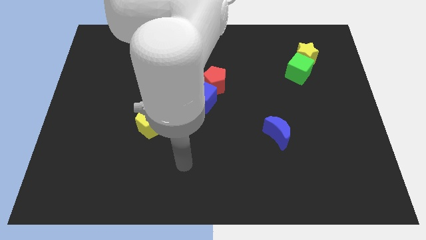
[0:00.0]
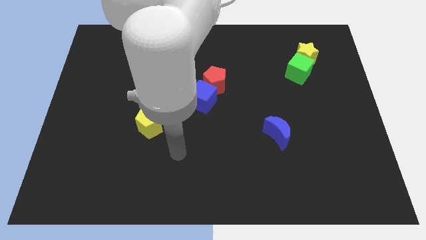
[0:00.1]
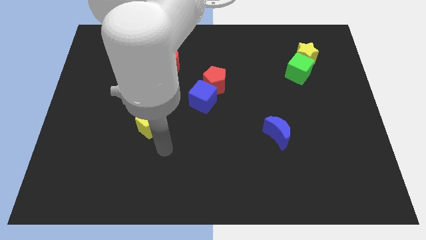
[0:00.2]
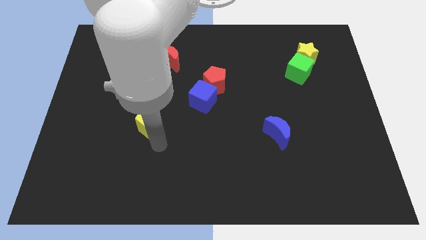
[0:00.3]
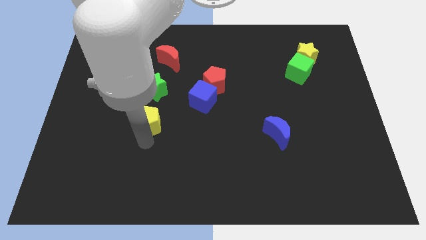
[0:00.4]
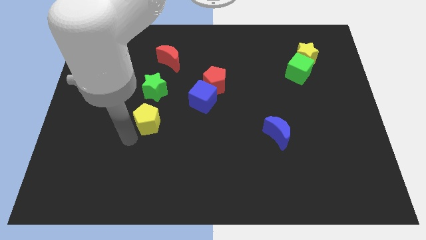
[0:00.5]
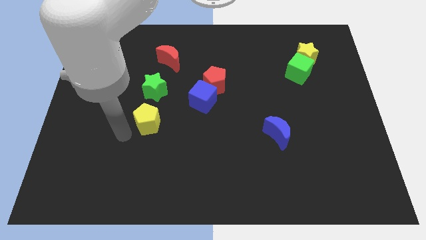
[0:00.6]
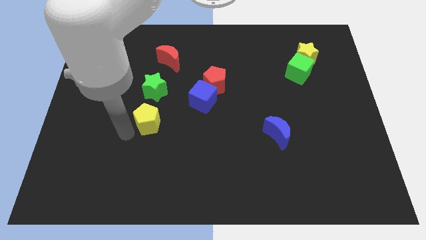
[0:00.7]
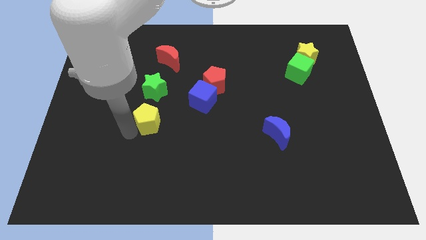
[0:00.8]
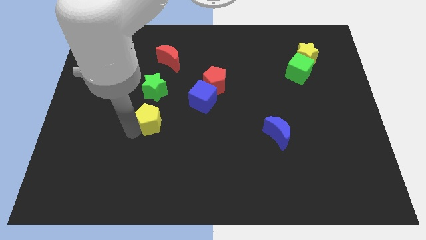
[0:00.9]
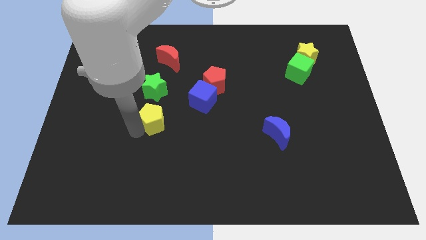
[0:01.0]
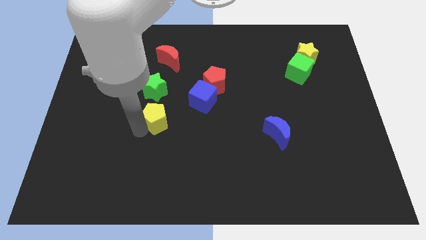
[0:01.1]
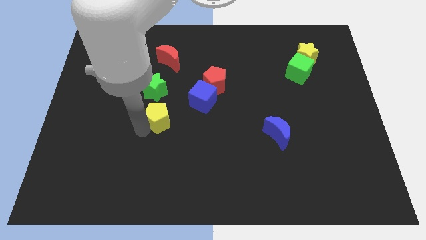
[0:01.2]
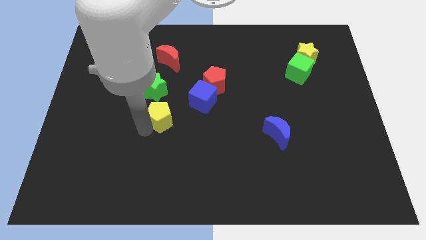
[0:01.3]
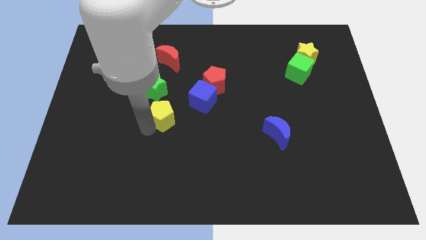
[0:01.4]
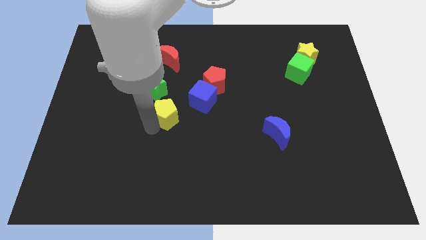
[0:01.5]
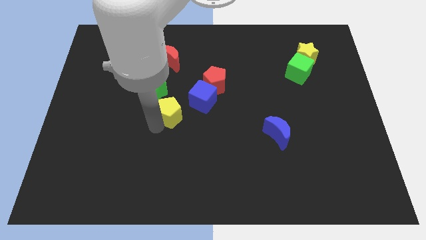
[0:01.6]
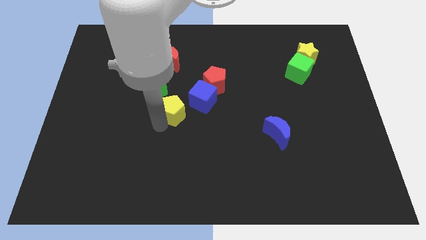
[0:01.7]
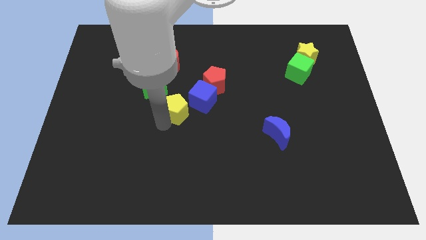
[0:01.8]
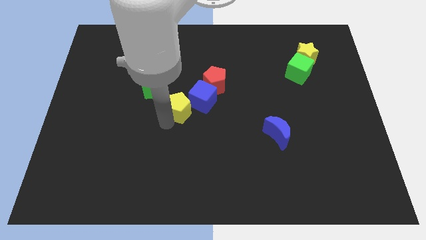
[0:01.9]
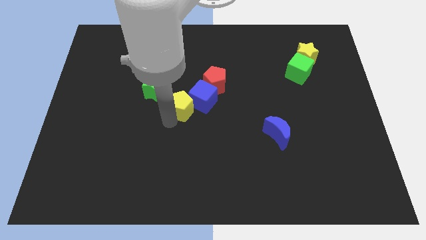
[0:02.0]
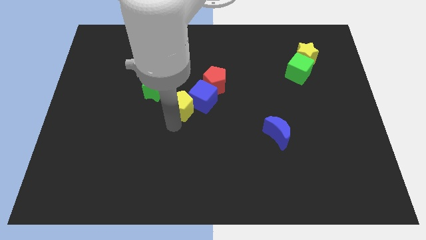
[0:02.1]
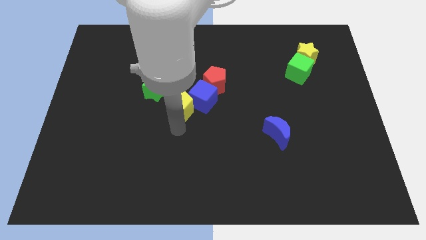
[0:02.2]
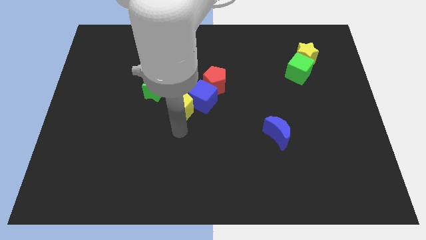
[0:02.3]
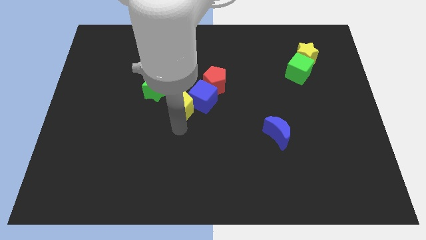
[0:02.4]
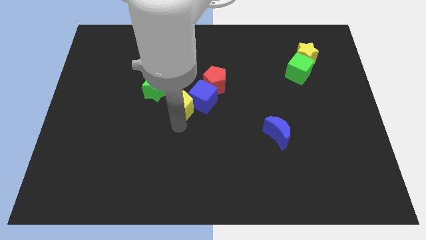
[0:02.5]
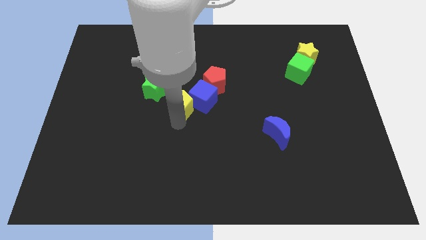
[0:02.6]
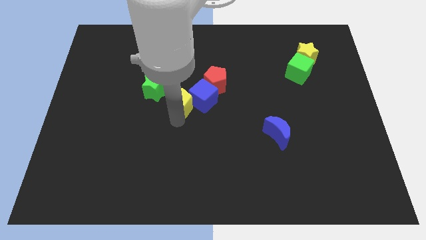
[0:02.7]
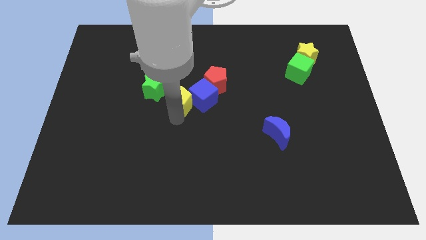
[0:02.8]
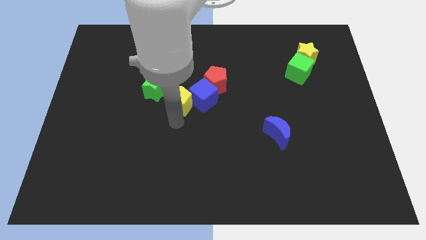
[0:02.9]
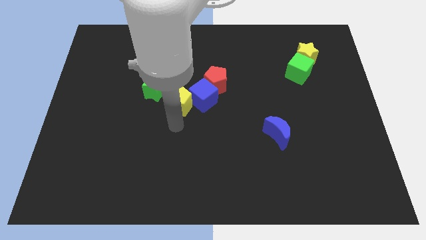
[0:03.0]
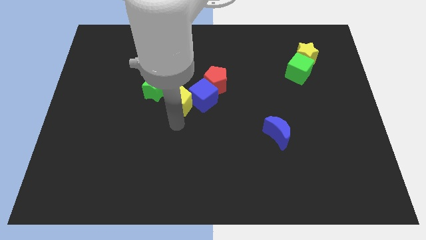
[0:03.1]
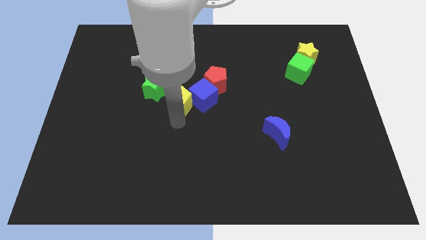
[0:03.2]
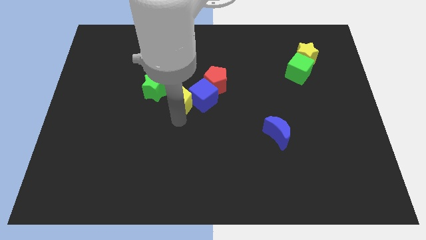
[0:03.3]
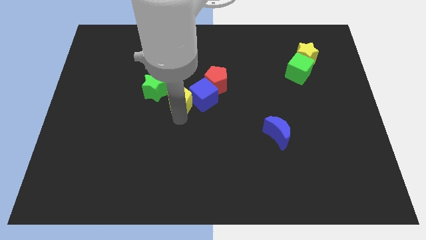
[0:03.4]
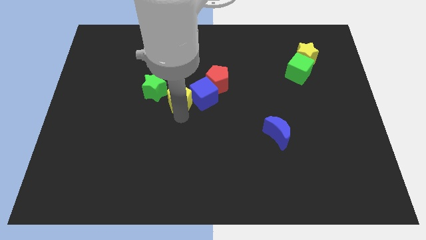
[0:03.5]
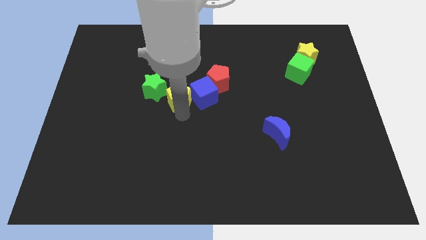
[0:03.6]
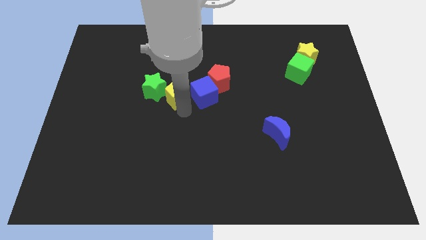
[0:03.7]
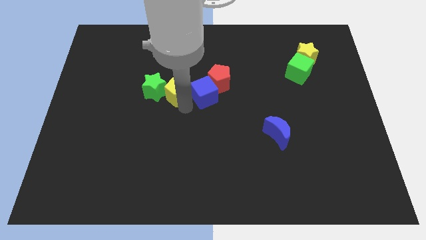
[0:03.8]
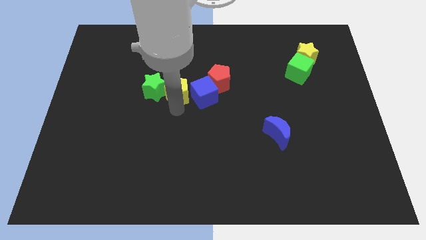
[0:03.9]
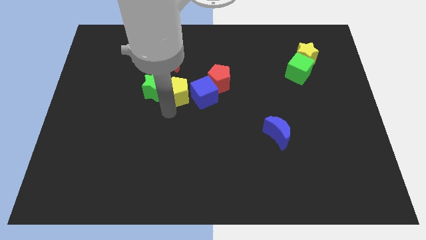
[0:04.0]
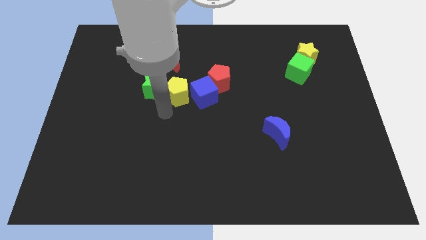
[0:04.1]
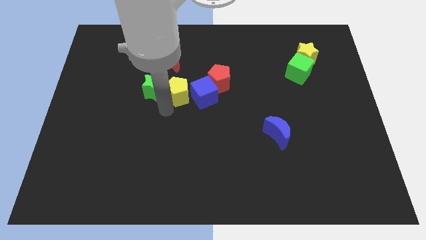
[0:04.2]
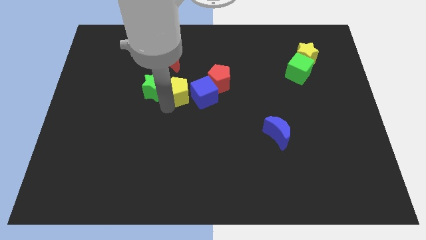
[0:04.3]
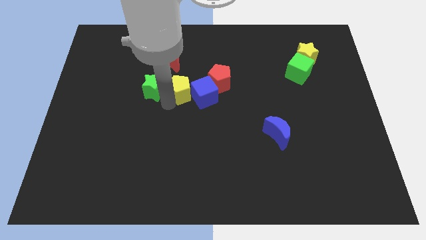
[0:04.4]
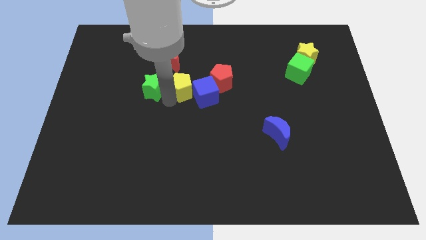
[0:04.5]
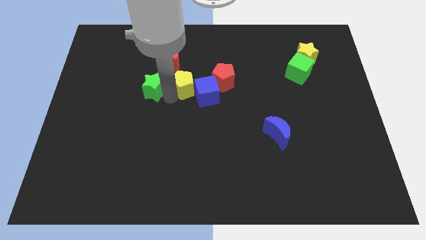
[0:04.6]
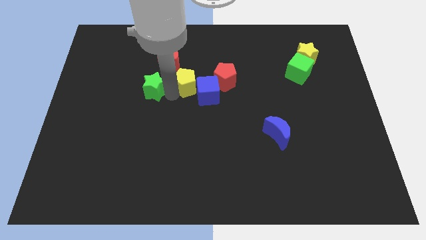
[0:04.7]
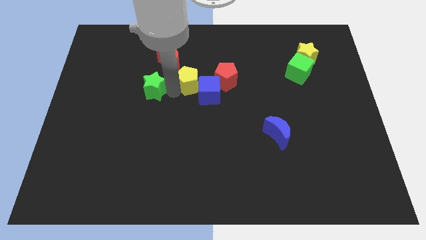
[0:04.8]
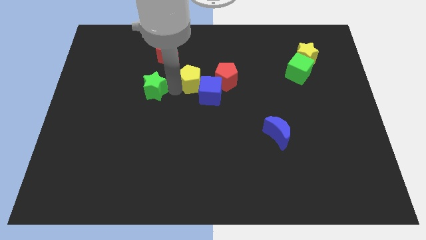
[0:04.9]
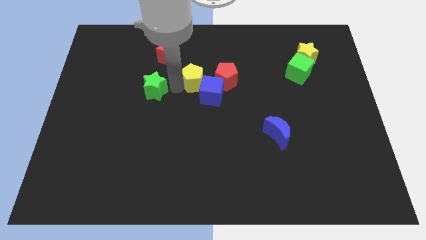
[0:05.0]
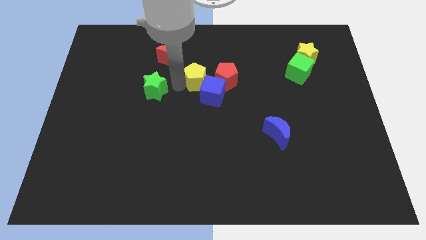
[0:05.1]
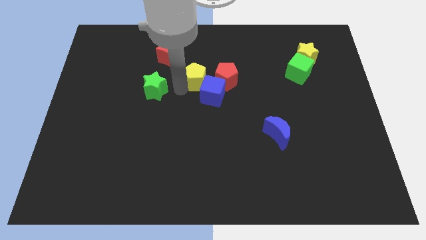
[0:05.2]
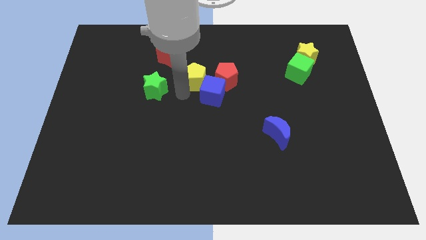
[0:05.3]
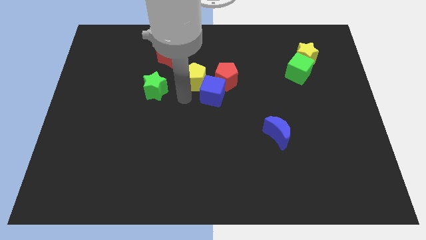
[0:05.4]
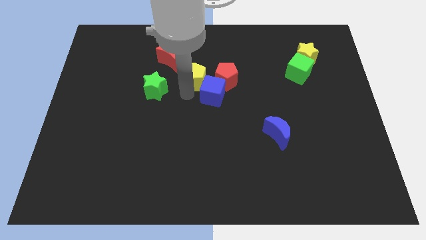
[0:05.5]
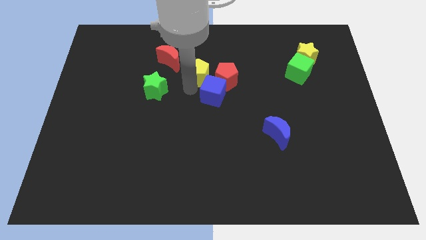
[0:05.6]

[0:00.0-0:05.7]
push the yellow pentagon to the top left of the red pentagon

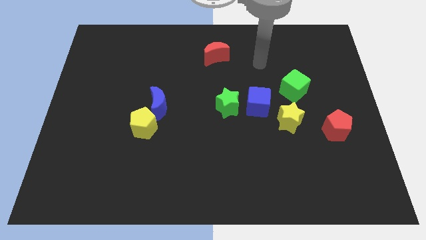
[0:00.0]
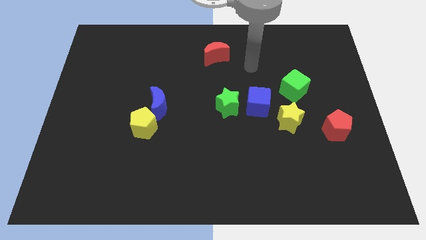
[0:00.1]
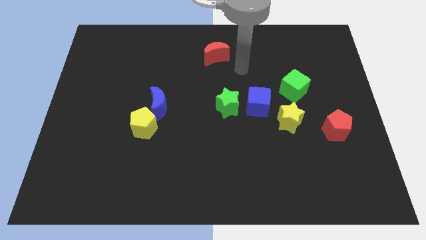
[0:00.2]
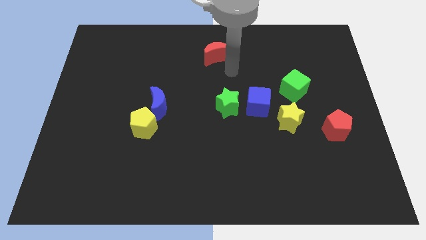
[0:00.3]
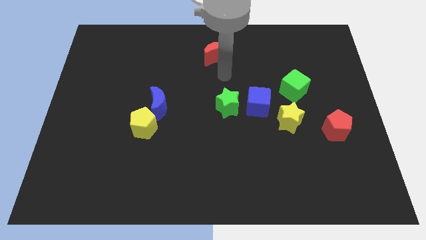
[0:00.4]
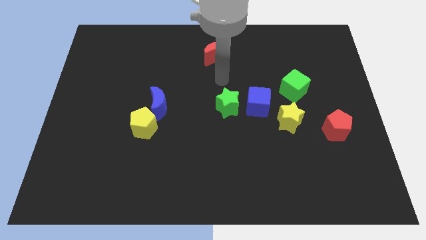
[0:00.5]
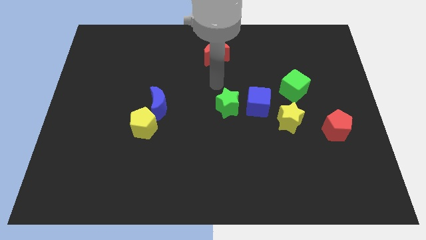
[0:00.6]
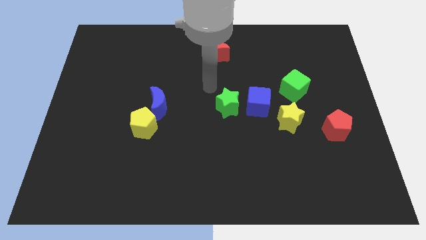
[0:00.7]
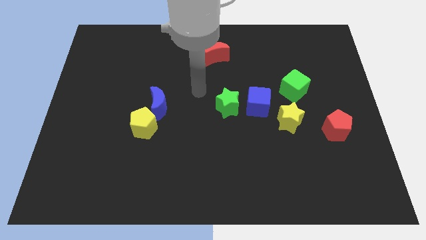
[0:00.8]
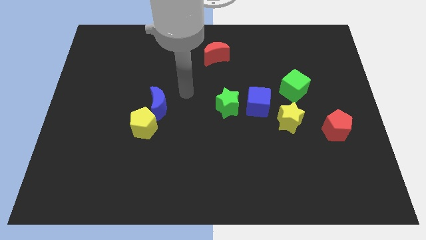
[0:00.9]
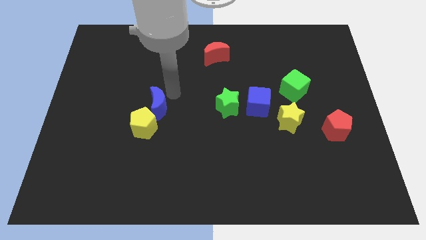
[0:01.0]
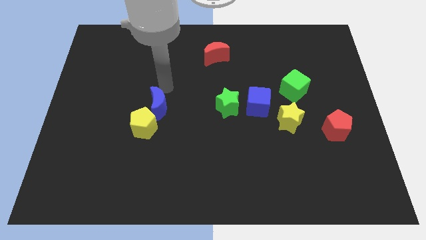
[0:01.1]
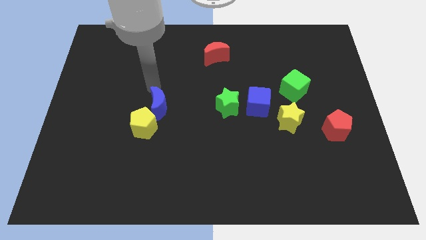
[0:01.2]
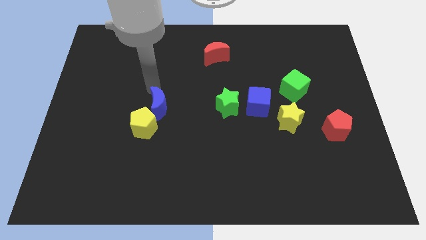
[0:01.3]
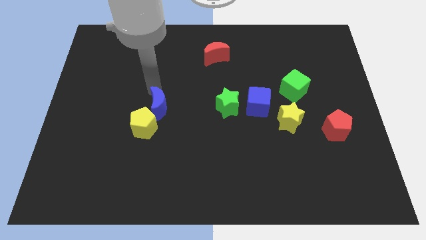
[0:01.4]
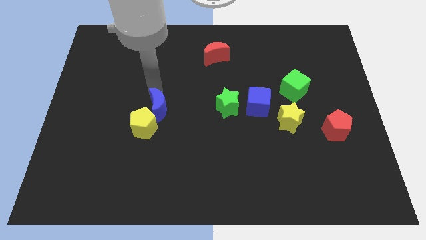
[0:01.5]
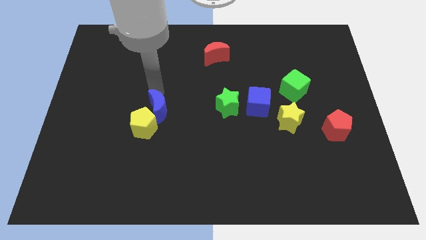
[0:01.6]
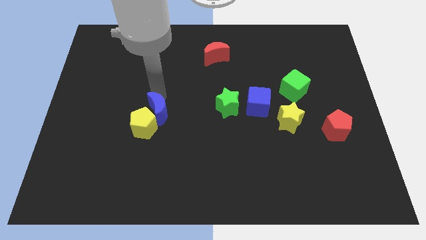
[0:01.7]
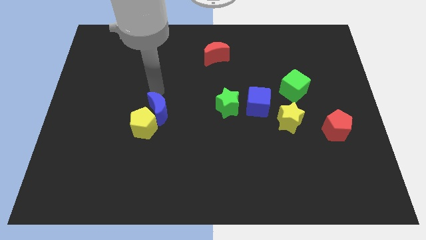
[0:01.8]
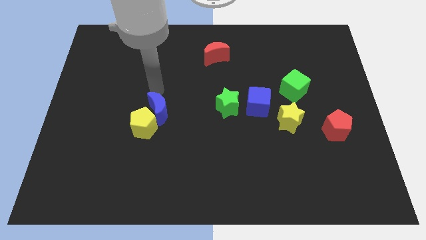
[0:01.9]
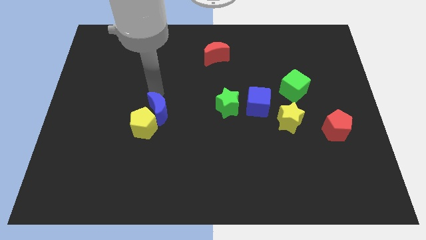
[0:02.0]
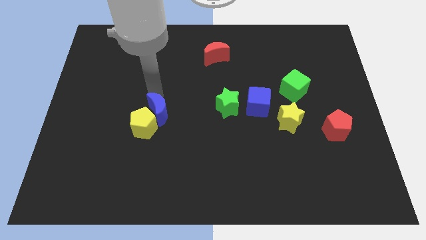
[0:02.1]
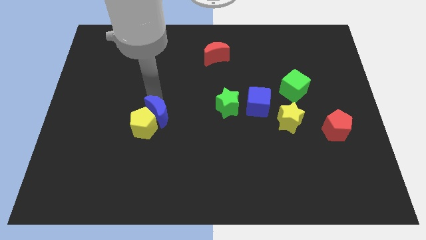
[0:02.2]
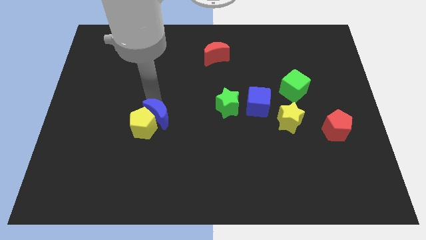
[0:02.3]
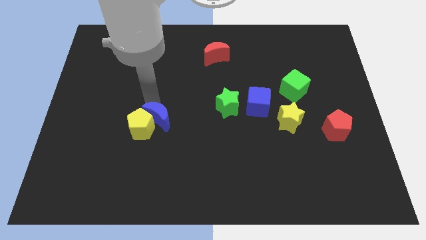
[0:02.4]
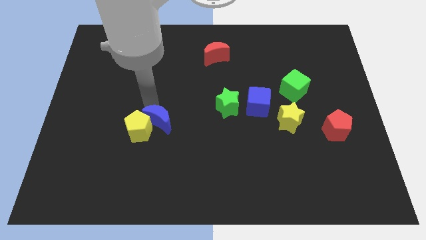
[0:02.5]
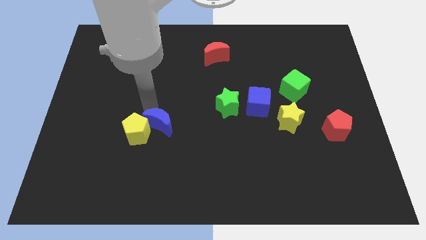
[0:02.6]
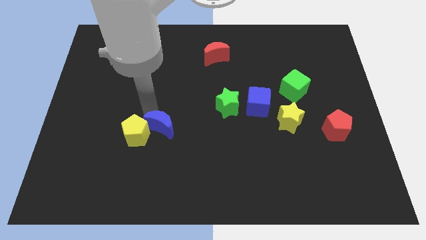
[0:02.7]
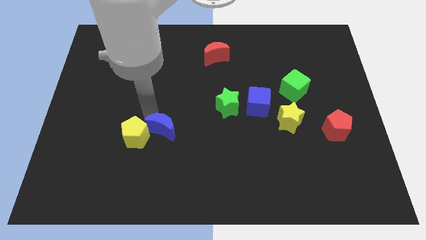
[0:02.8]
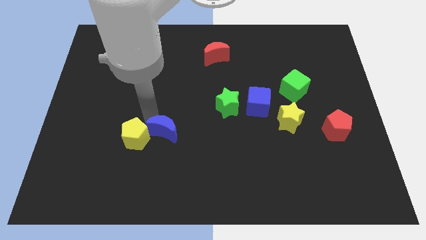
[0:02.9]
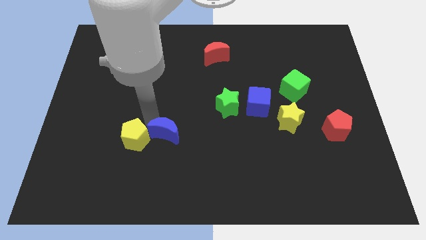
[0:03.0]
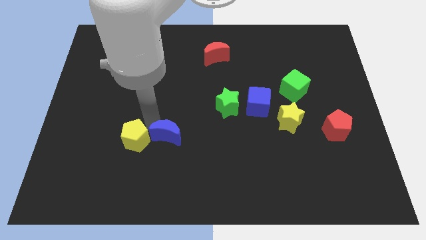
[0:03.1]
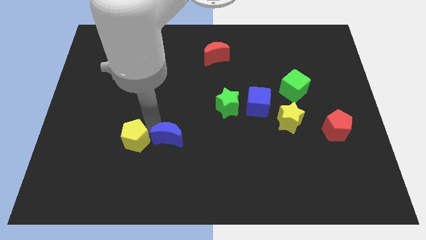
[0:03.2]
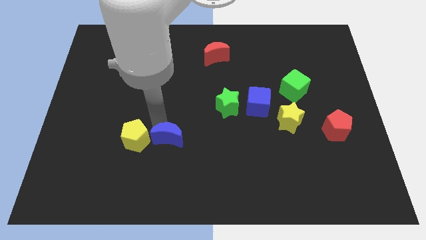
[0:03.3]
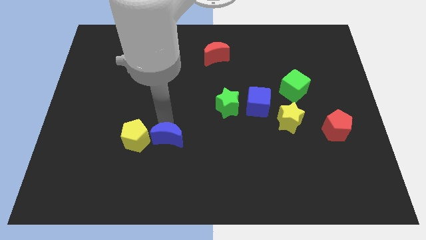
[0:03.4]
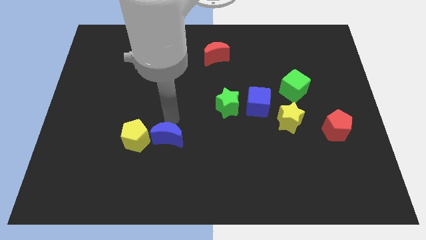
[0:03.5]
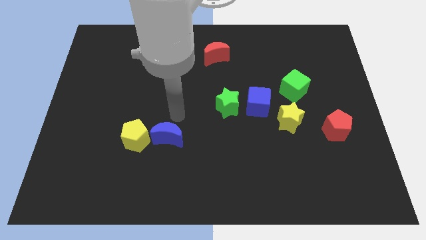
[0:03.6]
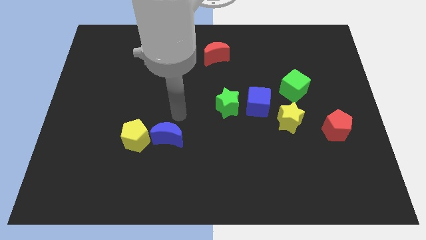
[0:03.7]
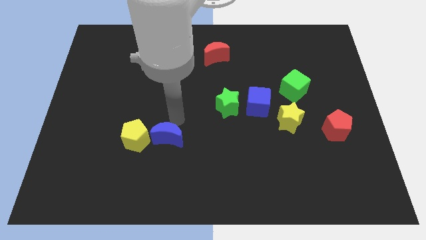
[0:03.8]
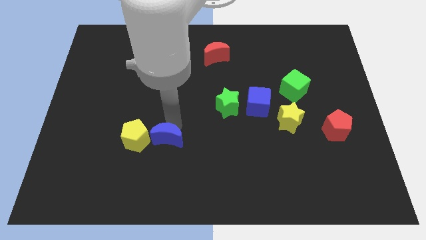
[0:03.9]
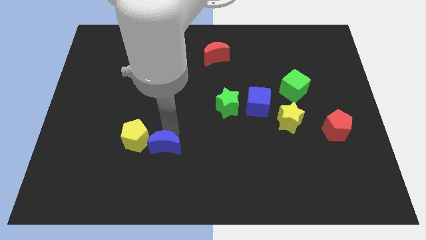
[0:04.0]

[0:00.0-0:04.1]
push the blue moon diagonally down and to the right of the yellow pentagon
